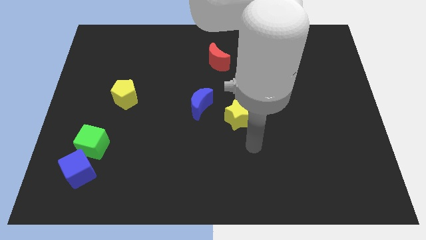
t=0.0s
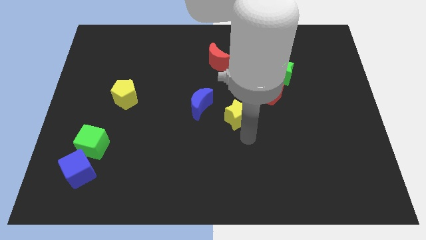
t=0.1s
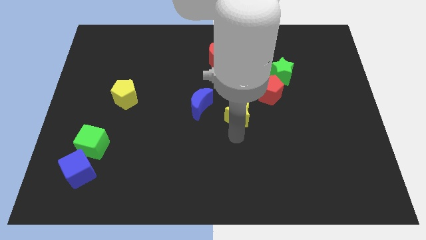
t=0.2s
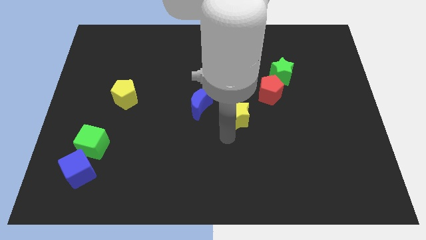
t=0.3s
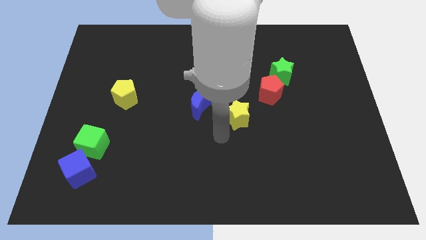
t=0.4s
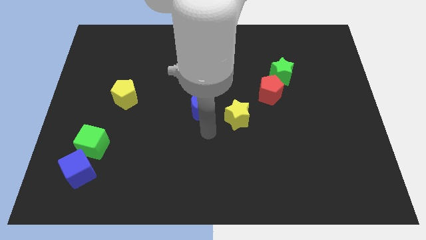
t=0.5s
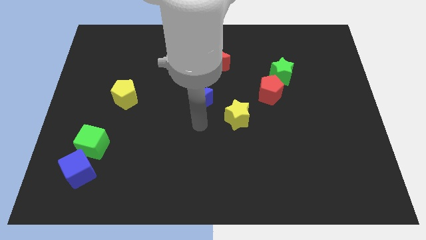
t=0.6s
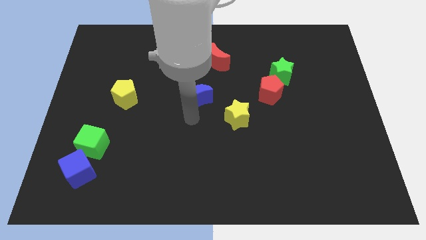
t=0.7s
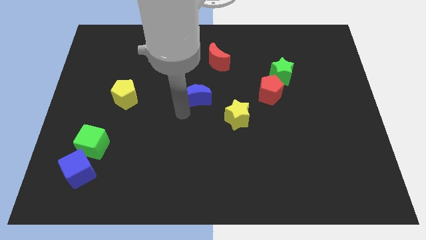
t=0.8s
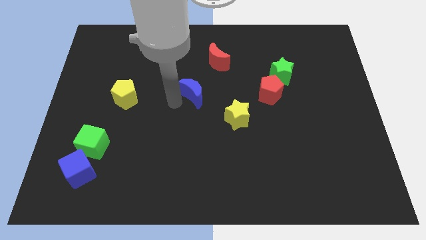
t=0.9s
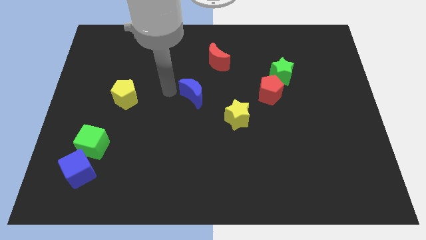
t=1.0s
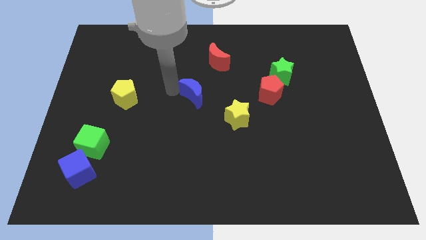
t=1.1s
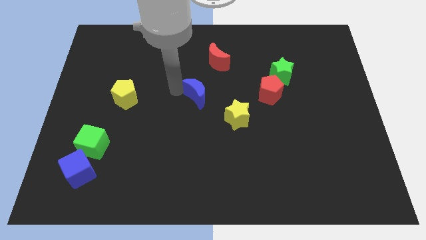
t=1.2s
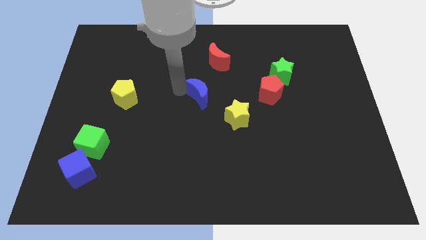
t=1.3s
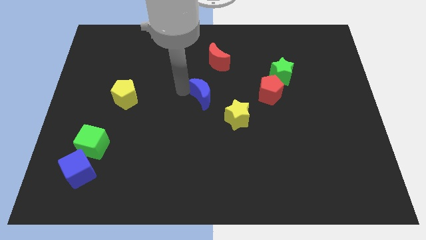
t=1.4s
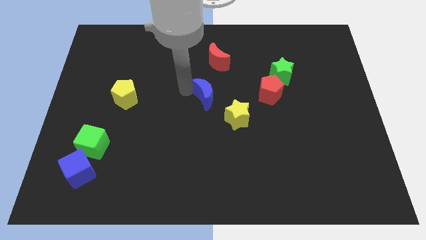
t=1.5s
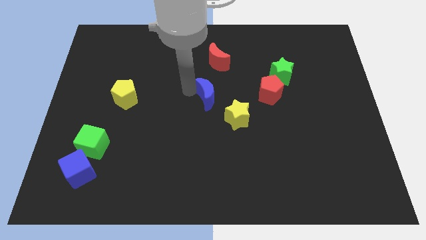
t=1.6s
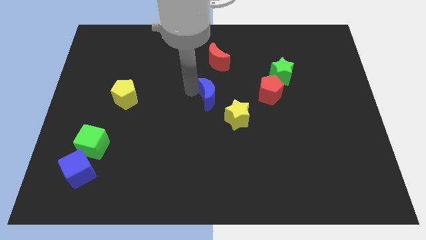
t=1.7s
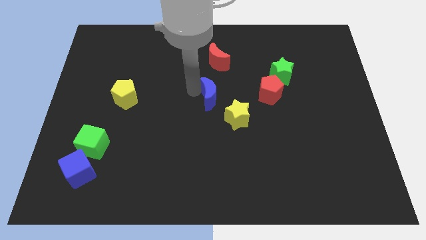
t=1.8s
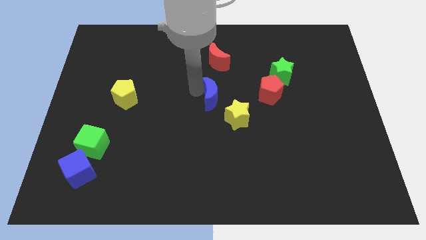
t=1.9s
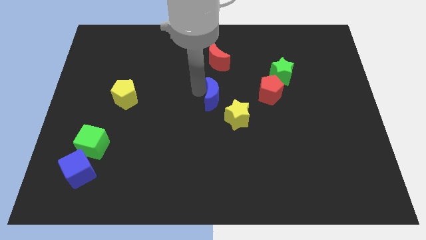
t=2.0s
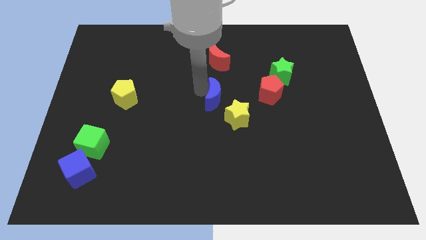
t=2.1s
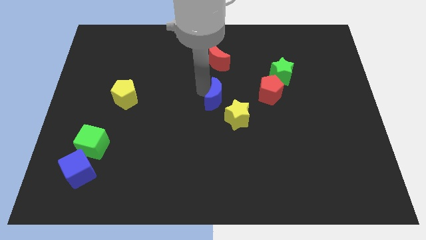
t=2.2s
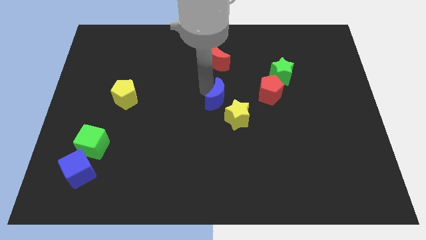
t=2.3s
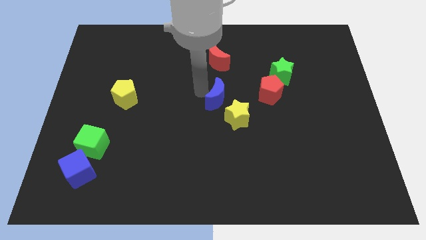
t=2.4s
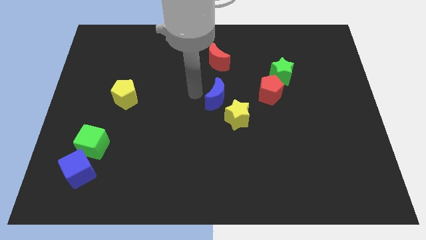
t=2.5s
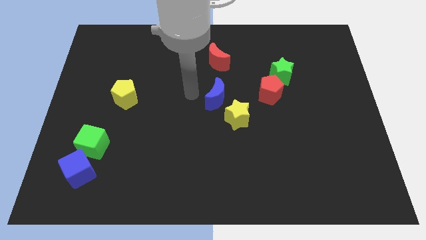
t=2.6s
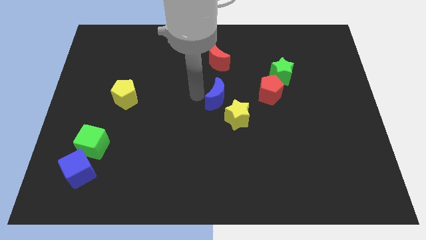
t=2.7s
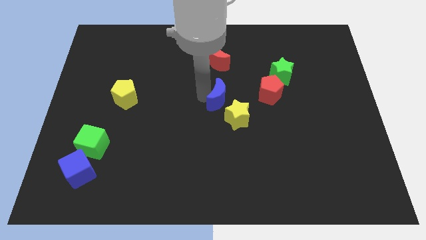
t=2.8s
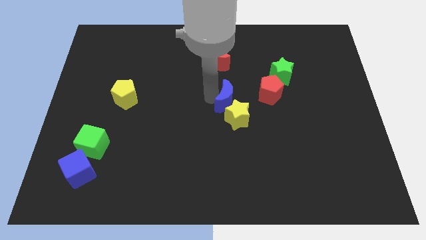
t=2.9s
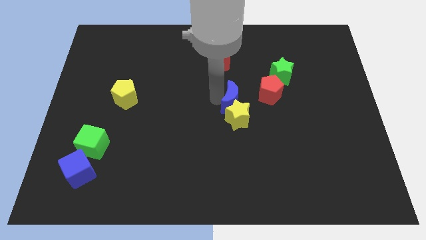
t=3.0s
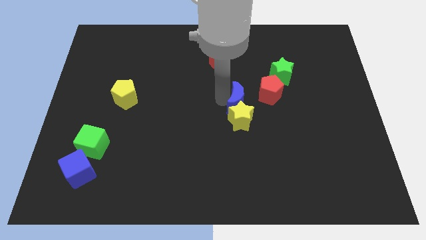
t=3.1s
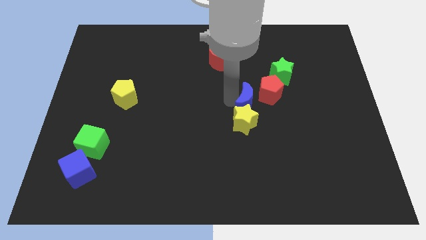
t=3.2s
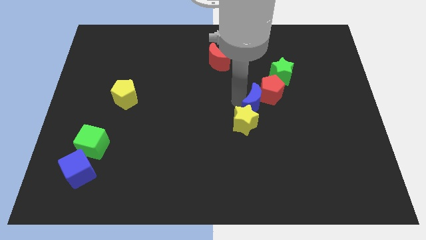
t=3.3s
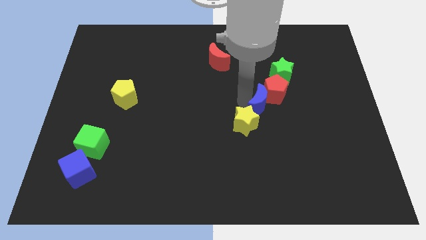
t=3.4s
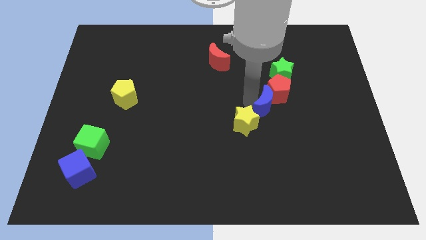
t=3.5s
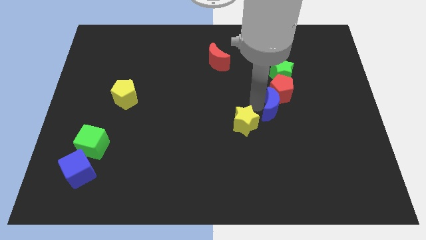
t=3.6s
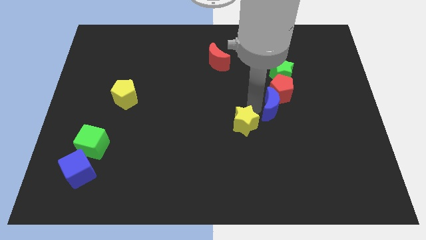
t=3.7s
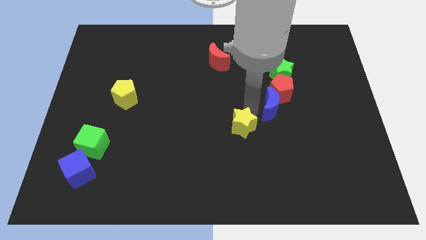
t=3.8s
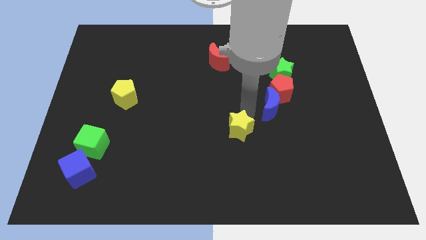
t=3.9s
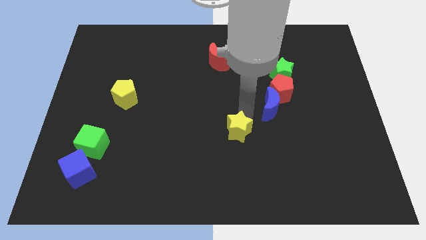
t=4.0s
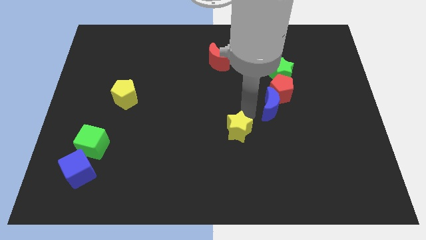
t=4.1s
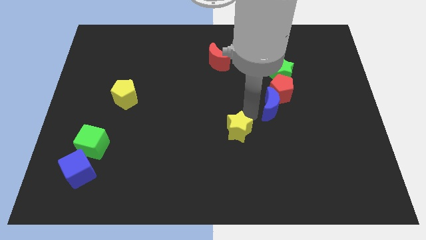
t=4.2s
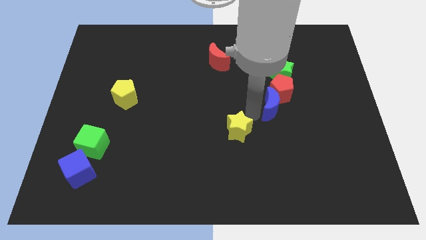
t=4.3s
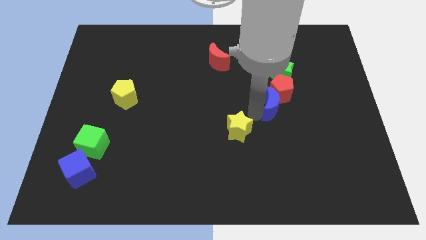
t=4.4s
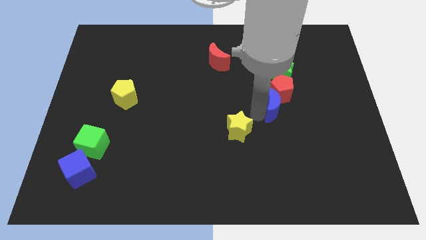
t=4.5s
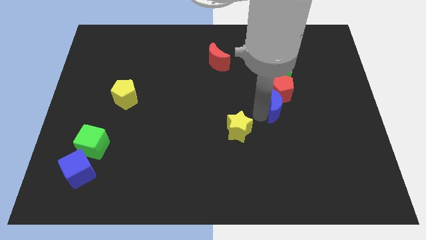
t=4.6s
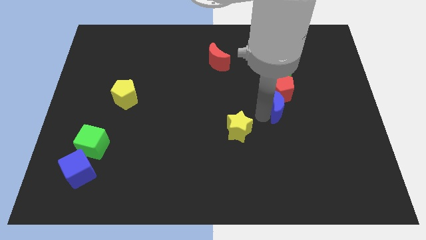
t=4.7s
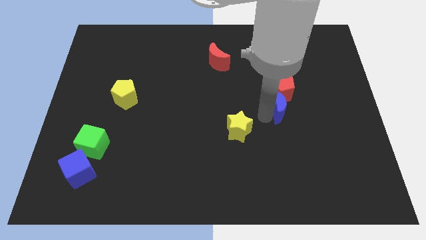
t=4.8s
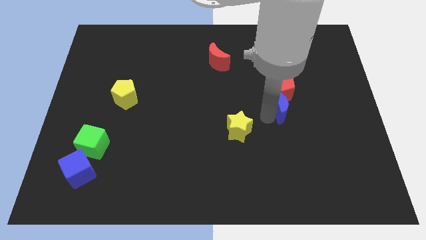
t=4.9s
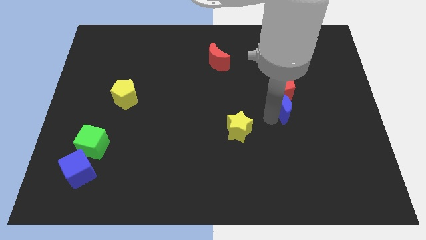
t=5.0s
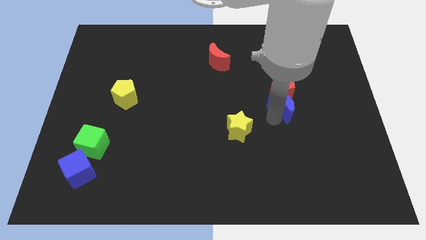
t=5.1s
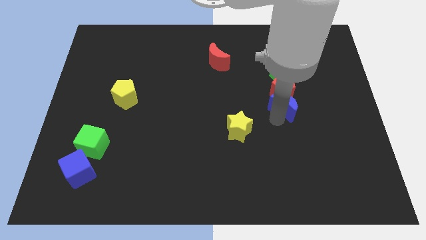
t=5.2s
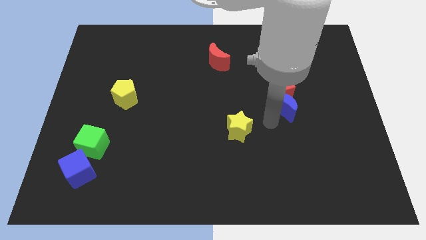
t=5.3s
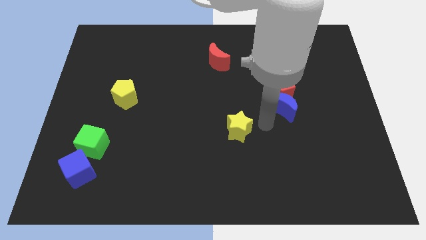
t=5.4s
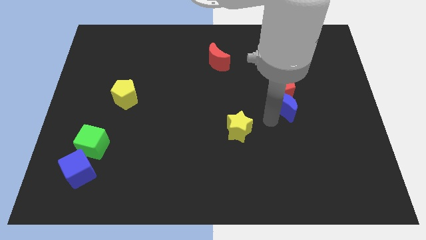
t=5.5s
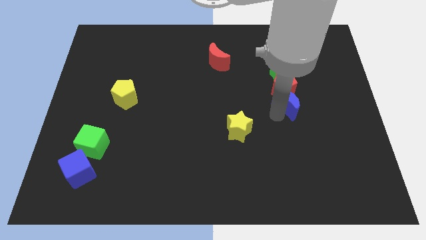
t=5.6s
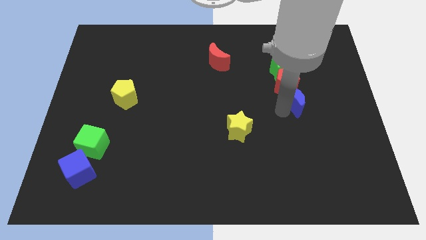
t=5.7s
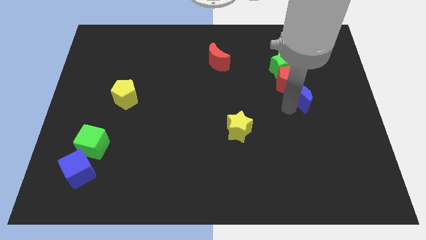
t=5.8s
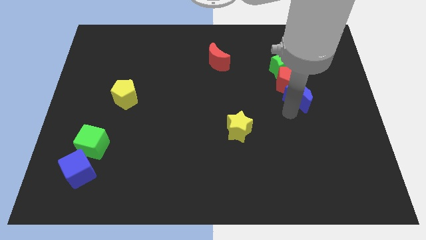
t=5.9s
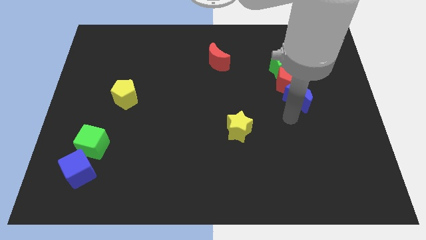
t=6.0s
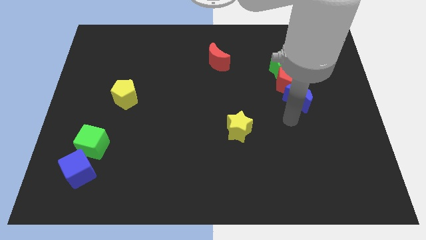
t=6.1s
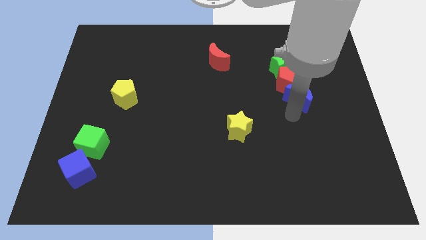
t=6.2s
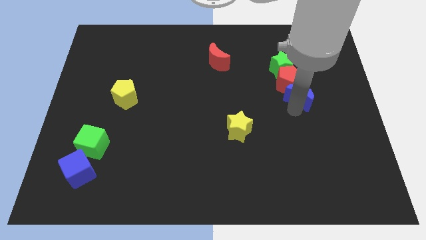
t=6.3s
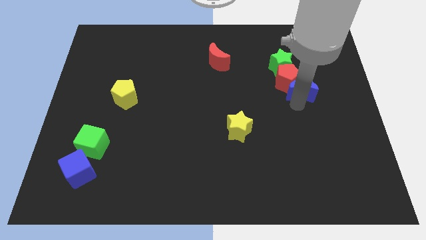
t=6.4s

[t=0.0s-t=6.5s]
slide the blue moon to the bottom right of the green star
